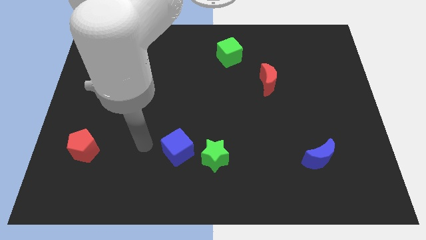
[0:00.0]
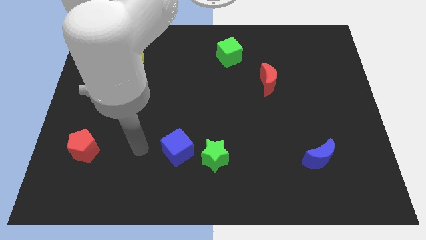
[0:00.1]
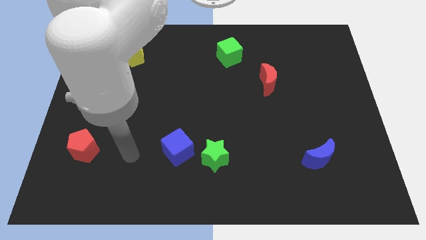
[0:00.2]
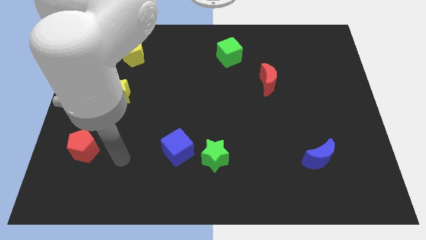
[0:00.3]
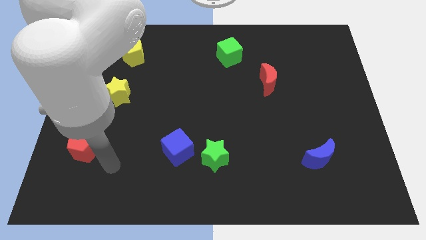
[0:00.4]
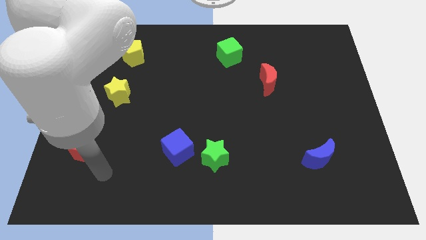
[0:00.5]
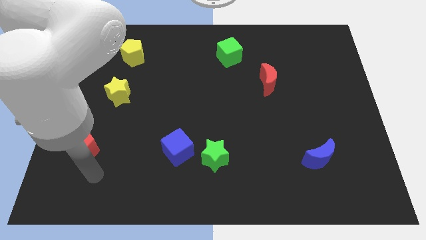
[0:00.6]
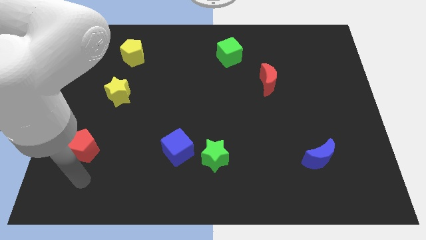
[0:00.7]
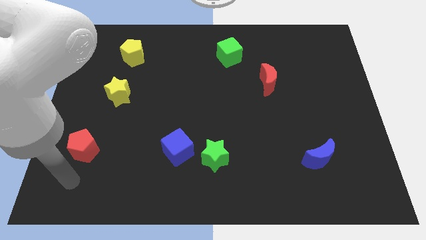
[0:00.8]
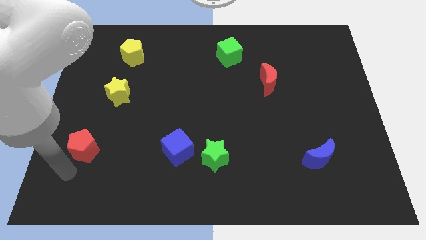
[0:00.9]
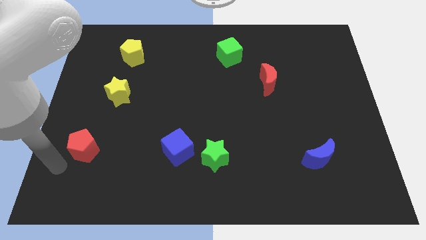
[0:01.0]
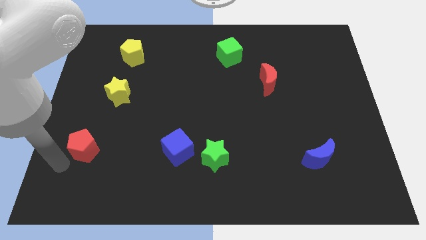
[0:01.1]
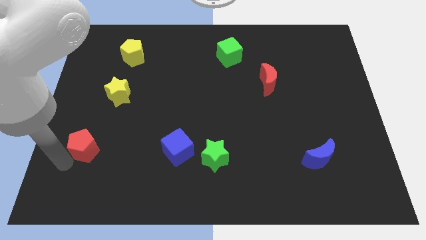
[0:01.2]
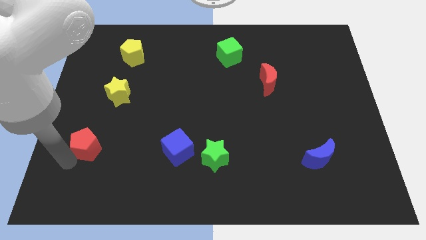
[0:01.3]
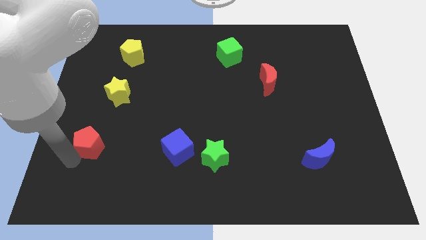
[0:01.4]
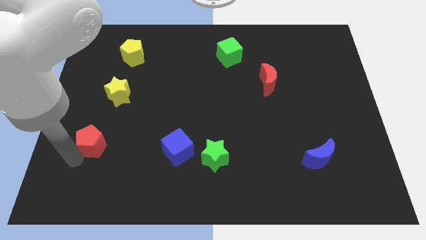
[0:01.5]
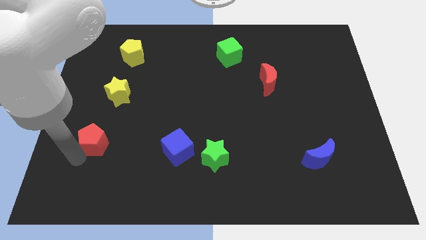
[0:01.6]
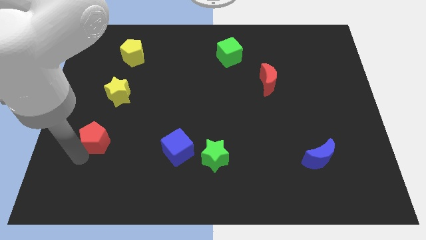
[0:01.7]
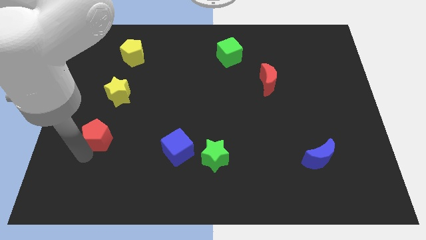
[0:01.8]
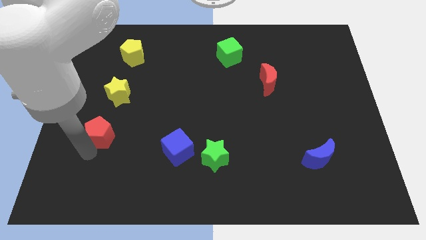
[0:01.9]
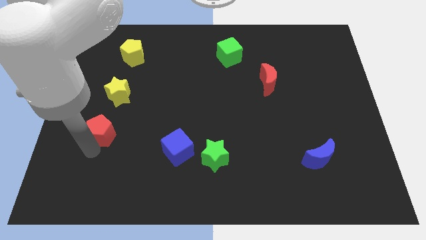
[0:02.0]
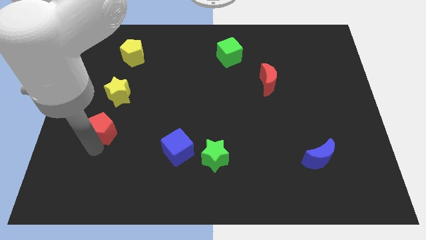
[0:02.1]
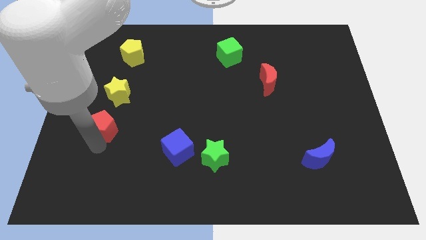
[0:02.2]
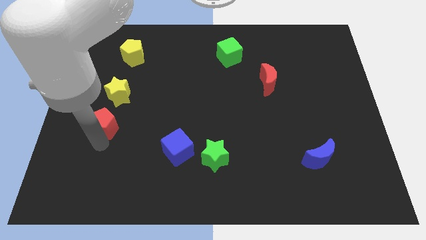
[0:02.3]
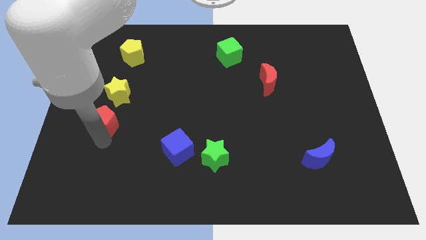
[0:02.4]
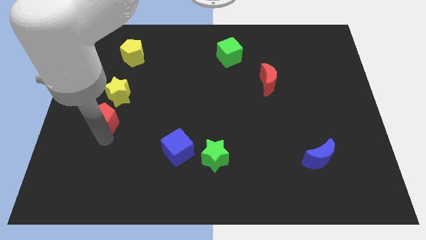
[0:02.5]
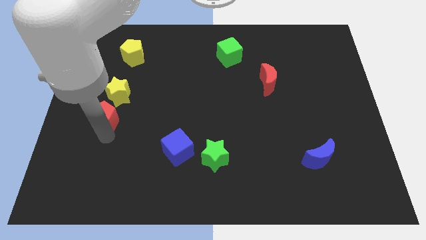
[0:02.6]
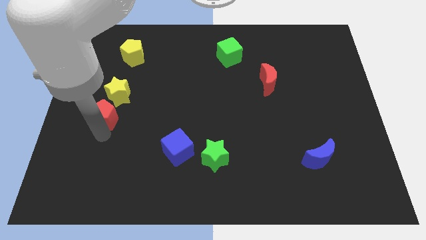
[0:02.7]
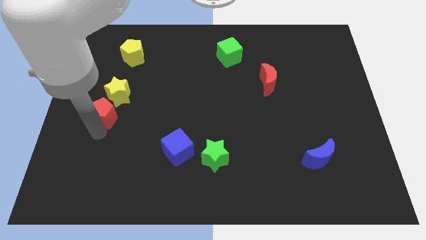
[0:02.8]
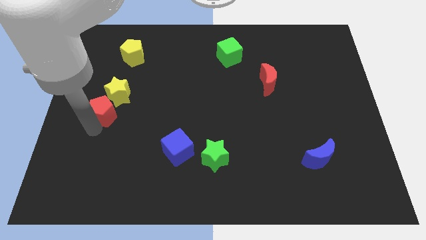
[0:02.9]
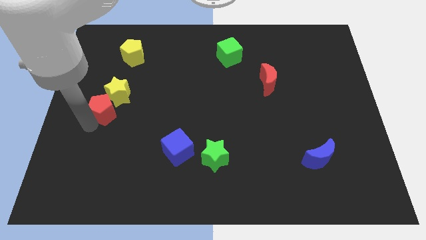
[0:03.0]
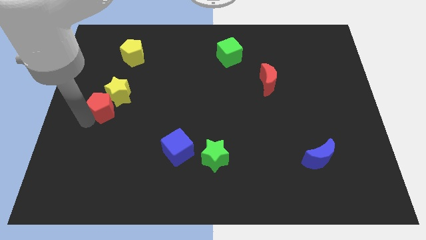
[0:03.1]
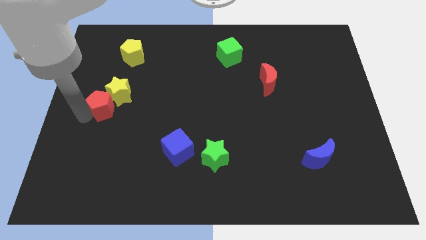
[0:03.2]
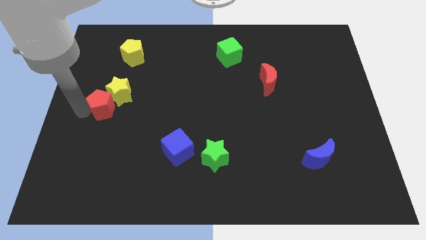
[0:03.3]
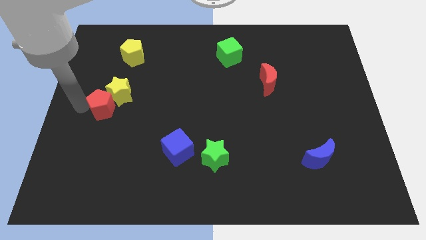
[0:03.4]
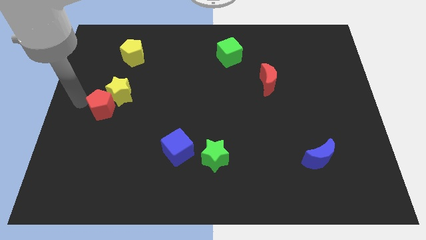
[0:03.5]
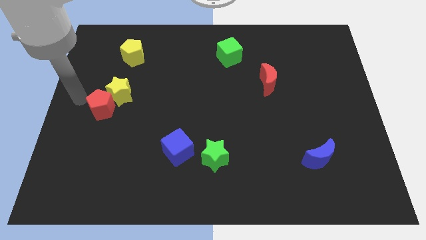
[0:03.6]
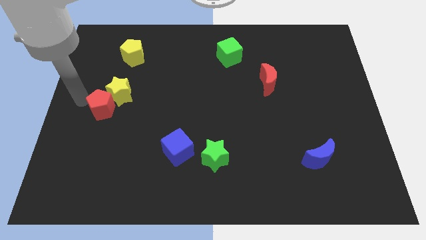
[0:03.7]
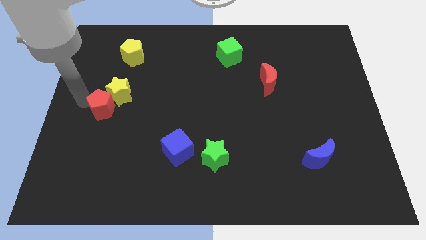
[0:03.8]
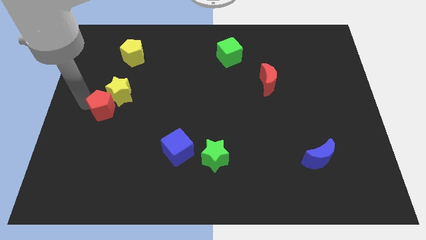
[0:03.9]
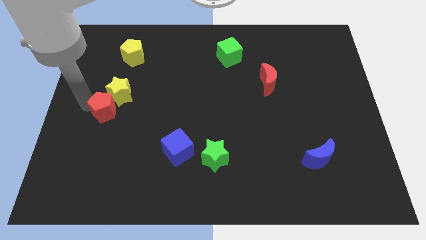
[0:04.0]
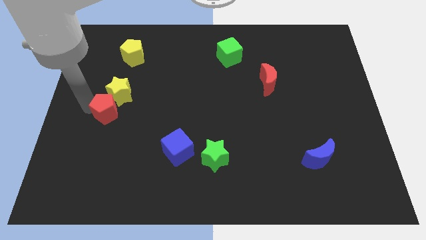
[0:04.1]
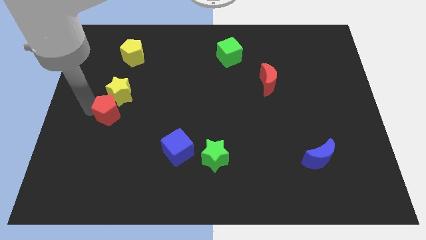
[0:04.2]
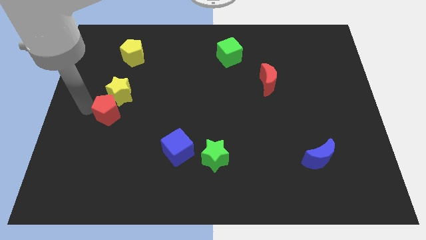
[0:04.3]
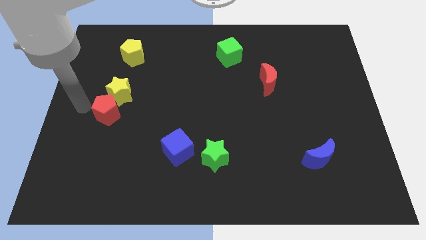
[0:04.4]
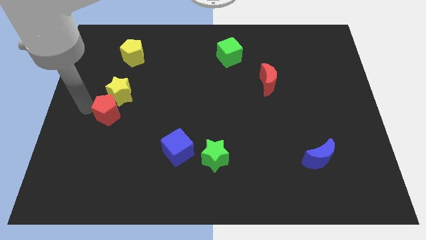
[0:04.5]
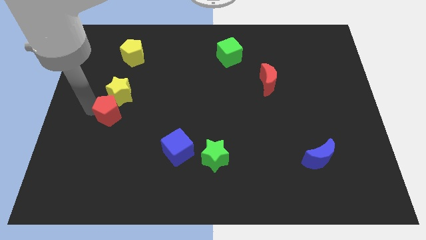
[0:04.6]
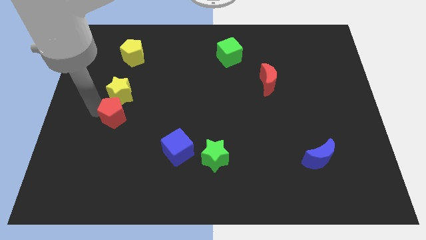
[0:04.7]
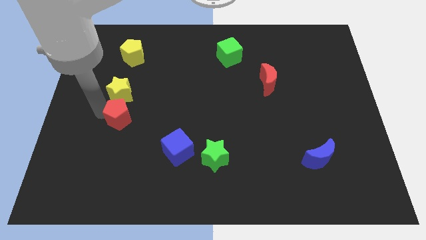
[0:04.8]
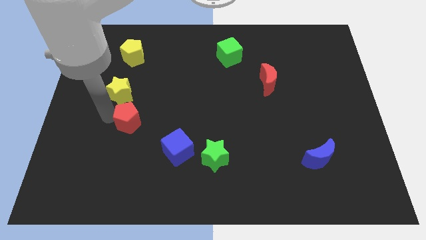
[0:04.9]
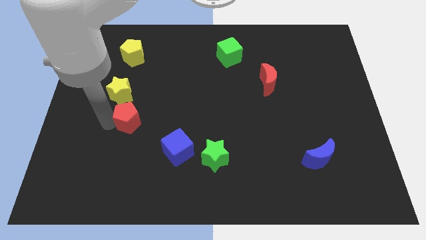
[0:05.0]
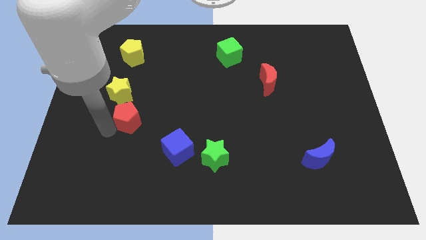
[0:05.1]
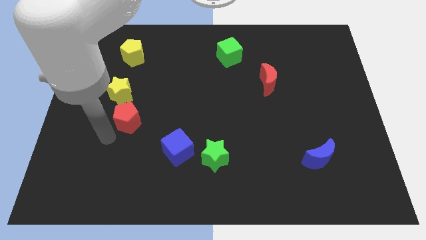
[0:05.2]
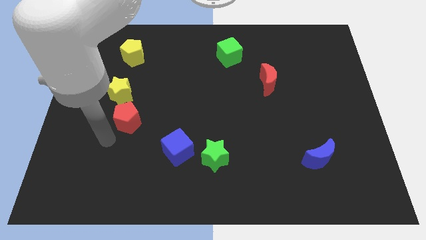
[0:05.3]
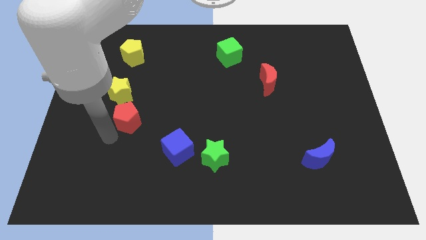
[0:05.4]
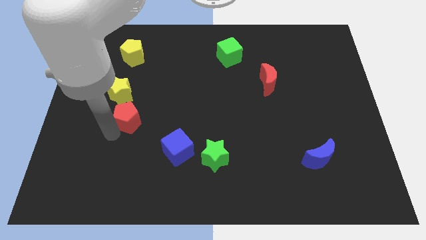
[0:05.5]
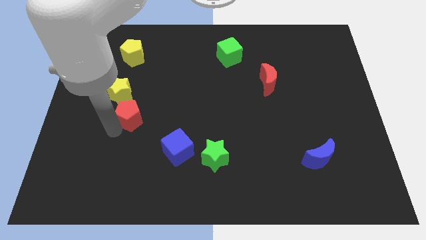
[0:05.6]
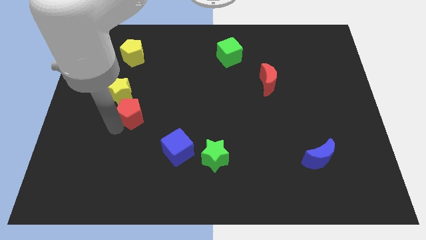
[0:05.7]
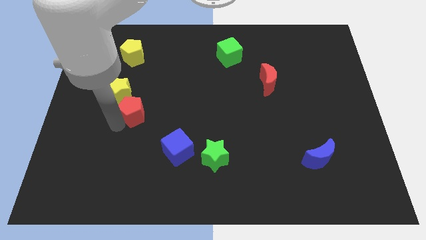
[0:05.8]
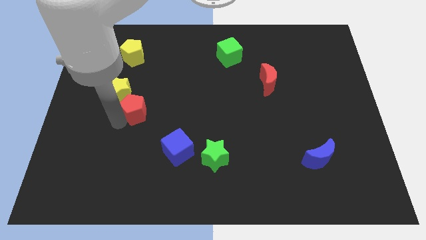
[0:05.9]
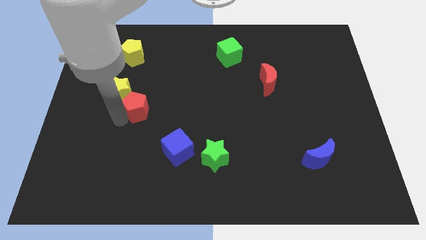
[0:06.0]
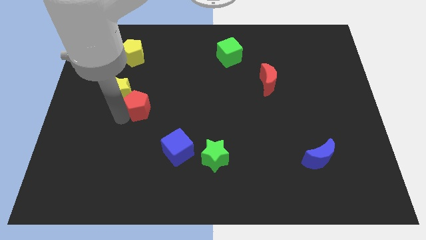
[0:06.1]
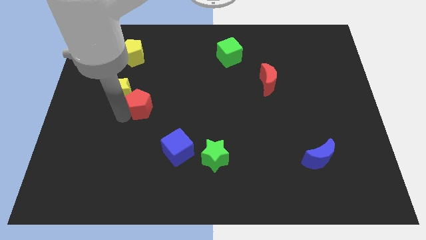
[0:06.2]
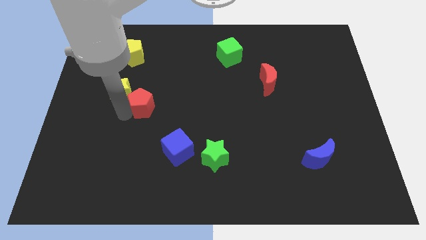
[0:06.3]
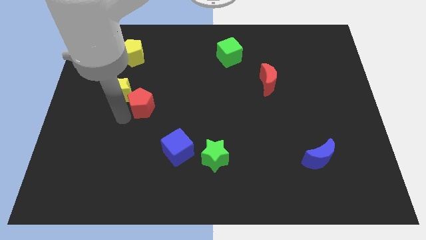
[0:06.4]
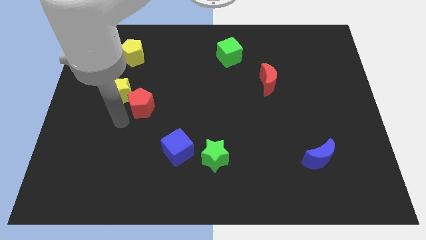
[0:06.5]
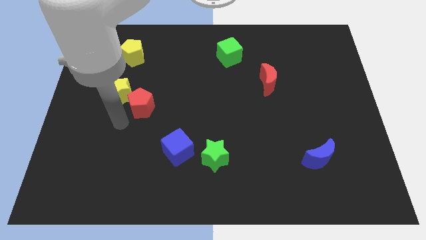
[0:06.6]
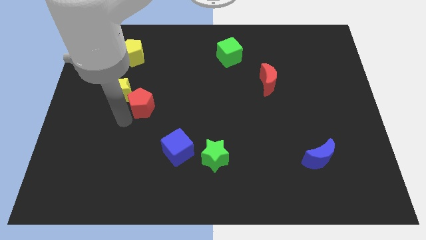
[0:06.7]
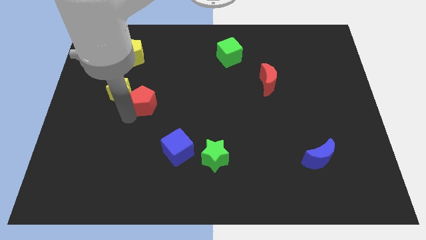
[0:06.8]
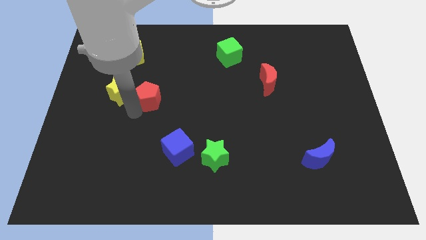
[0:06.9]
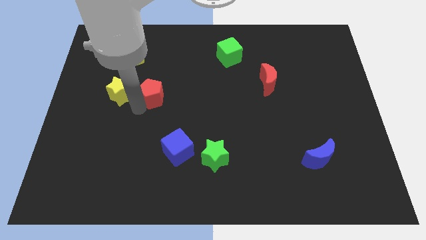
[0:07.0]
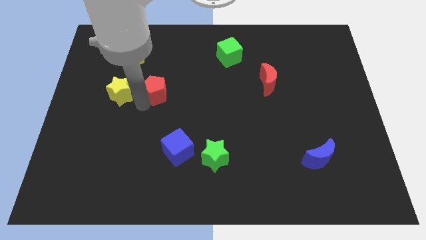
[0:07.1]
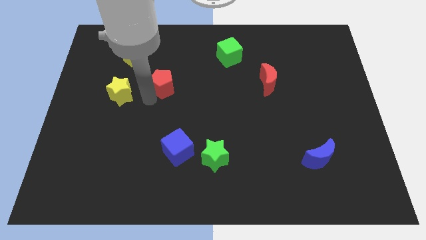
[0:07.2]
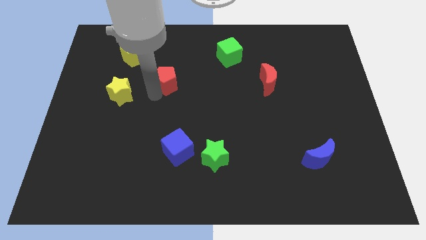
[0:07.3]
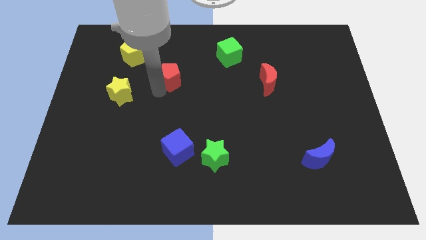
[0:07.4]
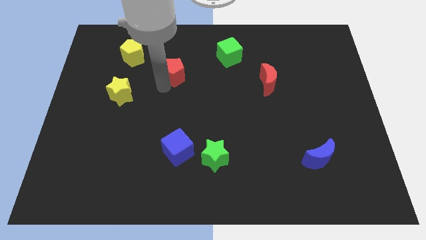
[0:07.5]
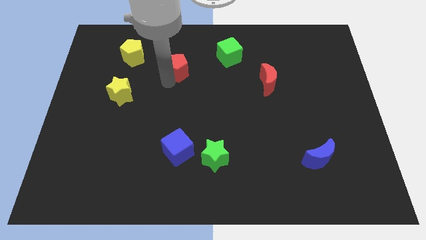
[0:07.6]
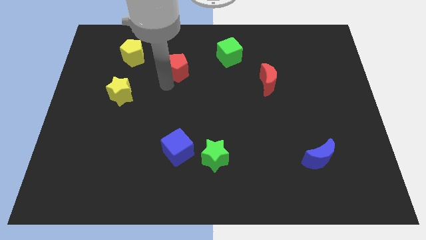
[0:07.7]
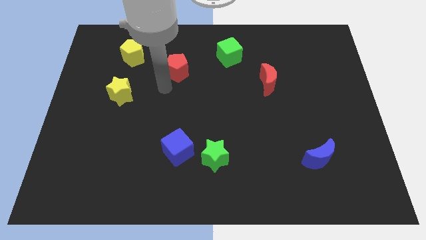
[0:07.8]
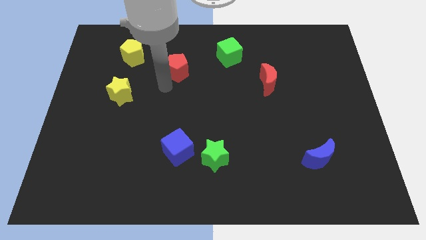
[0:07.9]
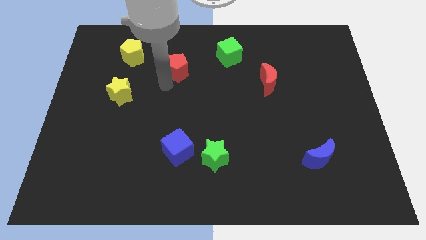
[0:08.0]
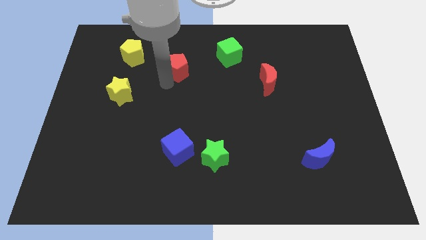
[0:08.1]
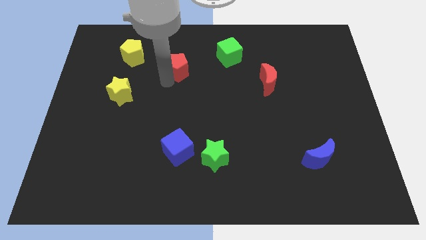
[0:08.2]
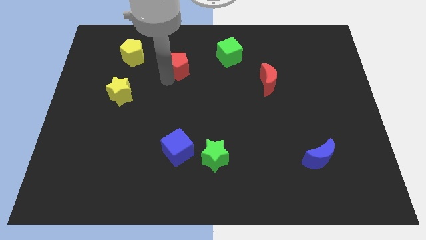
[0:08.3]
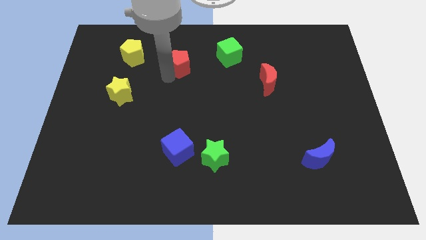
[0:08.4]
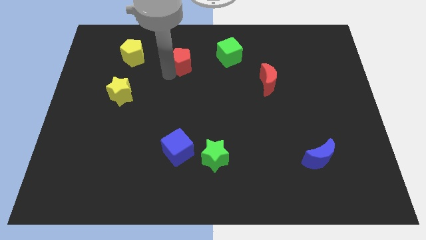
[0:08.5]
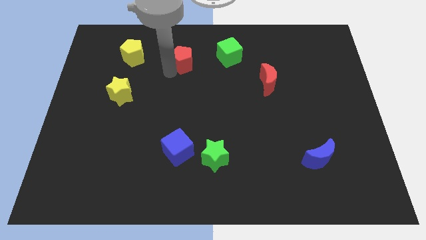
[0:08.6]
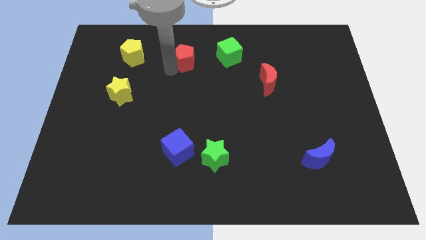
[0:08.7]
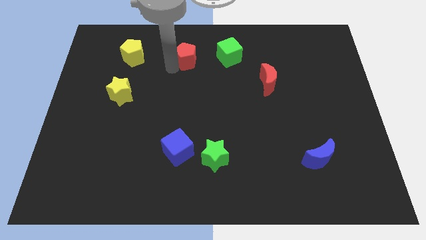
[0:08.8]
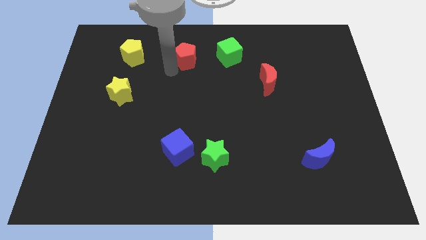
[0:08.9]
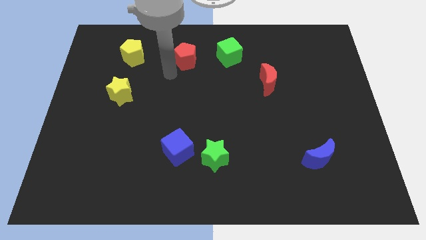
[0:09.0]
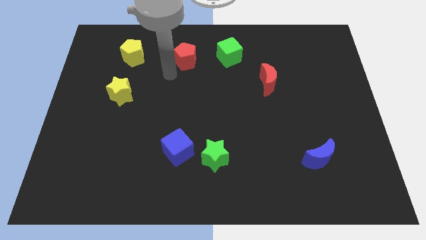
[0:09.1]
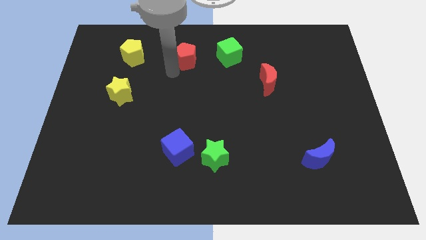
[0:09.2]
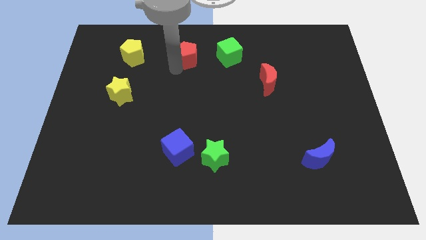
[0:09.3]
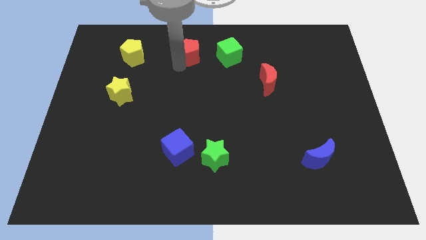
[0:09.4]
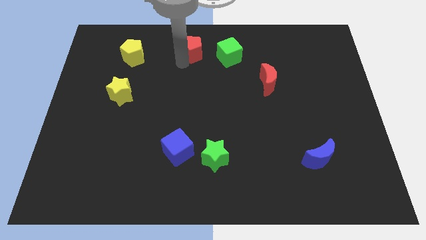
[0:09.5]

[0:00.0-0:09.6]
push the red pentagon to the top
